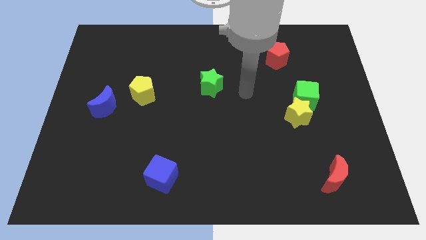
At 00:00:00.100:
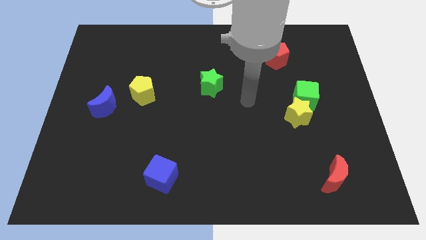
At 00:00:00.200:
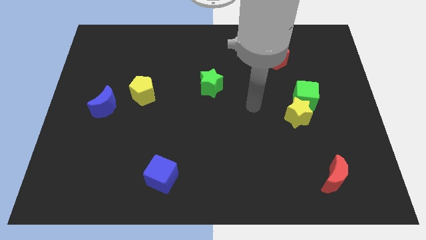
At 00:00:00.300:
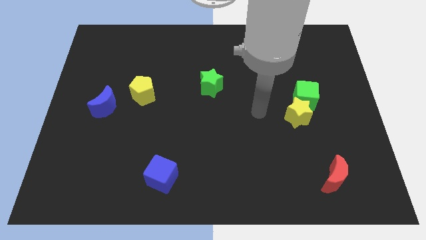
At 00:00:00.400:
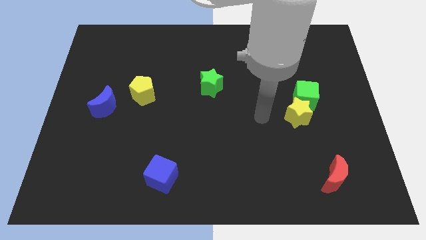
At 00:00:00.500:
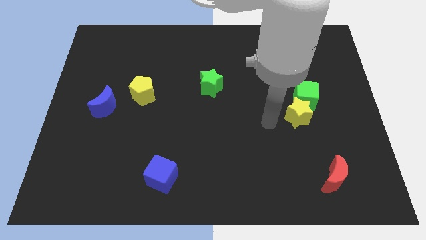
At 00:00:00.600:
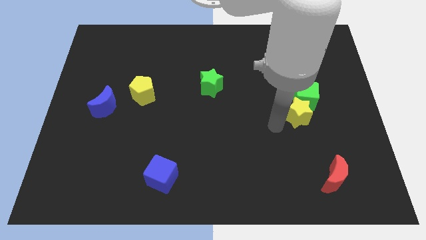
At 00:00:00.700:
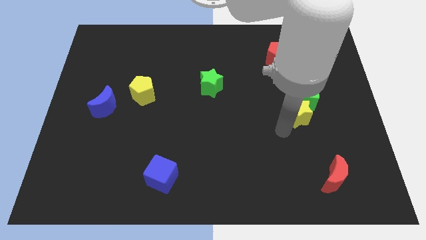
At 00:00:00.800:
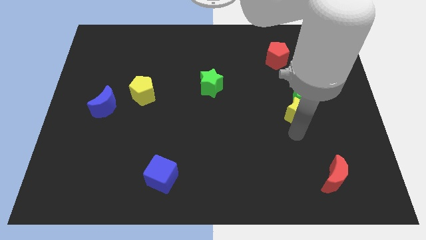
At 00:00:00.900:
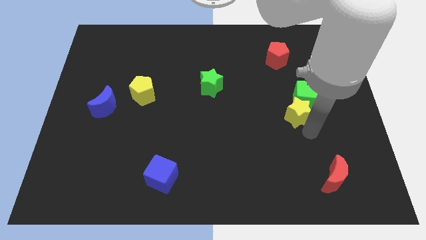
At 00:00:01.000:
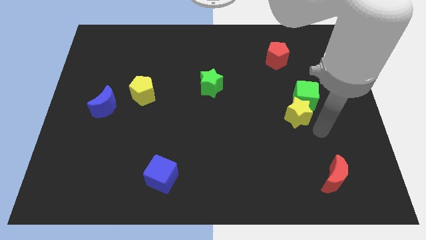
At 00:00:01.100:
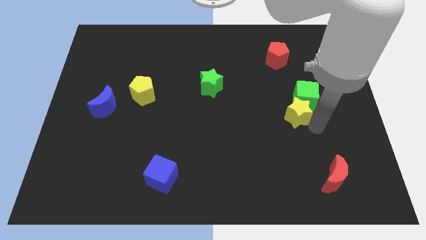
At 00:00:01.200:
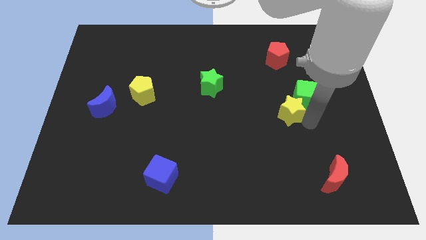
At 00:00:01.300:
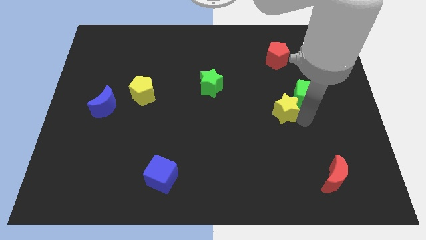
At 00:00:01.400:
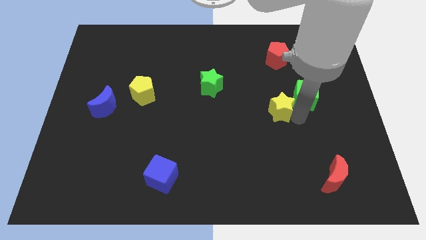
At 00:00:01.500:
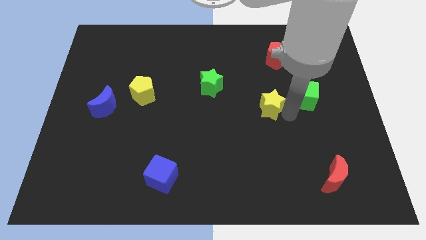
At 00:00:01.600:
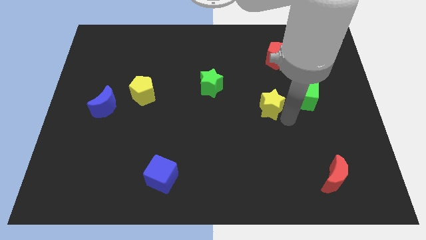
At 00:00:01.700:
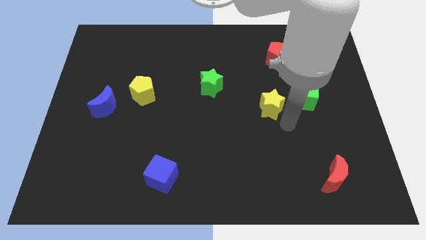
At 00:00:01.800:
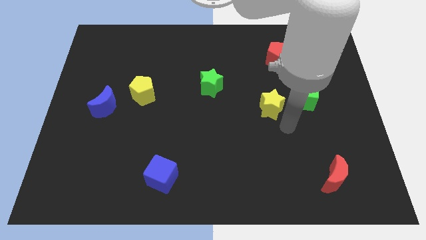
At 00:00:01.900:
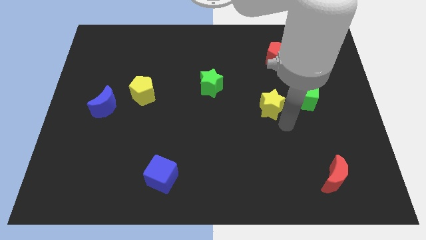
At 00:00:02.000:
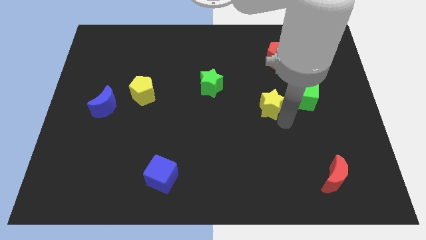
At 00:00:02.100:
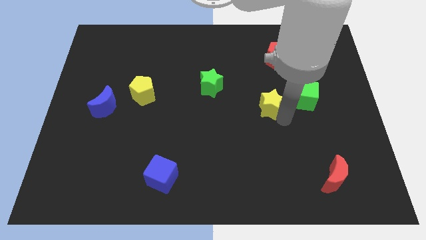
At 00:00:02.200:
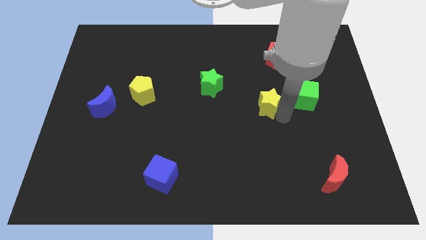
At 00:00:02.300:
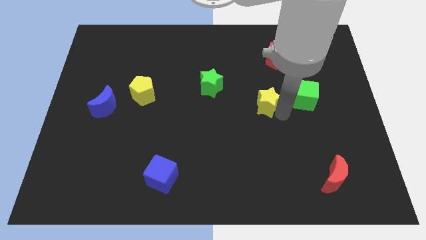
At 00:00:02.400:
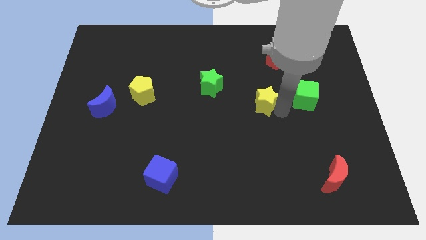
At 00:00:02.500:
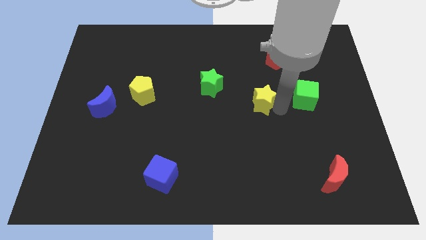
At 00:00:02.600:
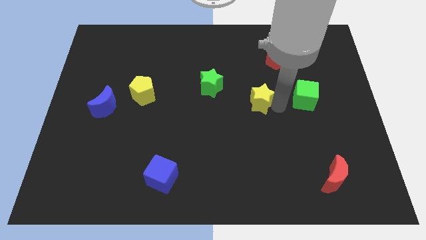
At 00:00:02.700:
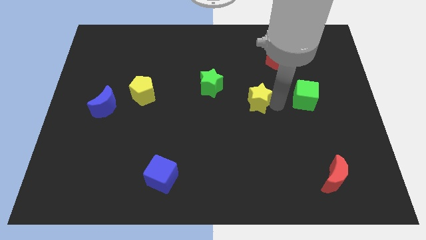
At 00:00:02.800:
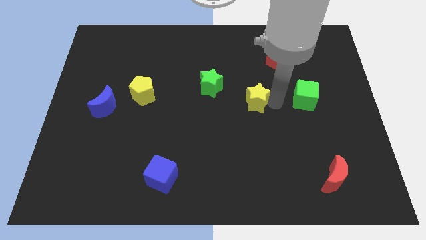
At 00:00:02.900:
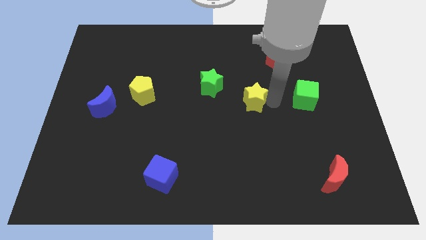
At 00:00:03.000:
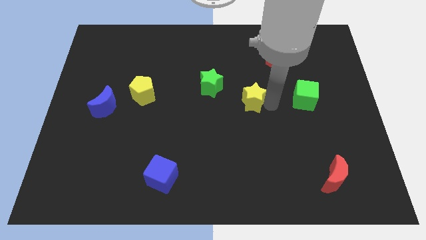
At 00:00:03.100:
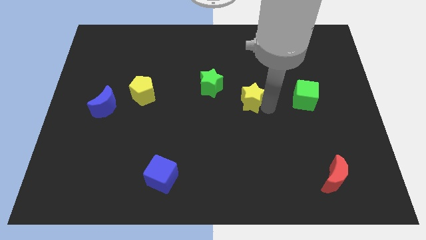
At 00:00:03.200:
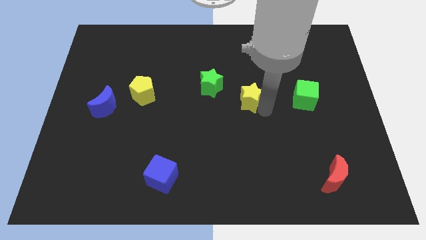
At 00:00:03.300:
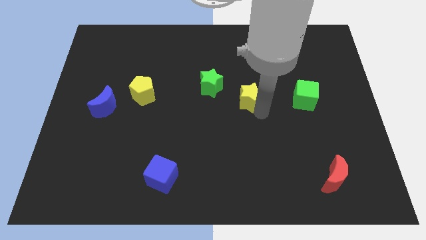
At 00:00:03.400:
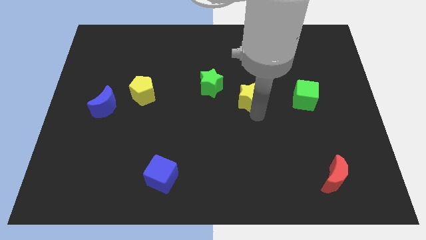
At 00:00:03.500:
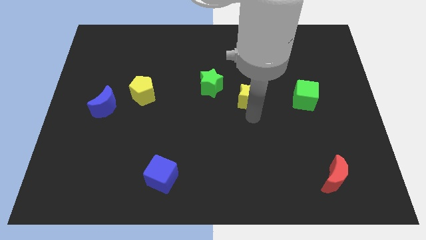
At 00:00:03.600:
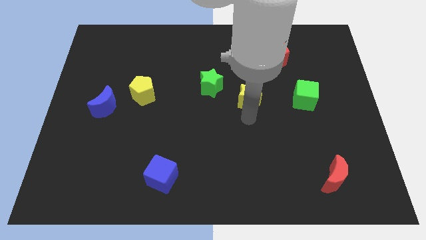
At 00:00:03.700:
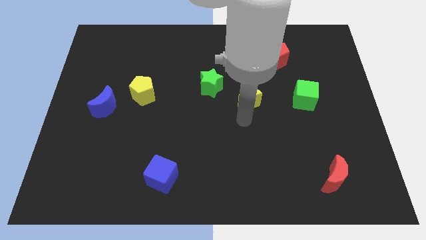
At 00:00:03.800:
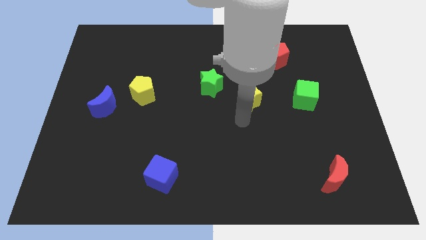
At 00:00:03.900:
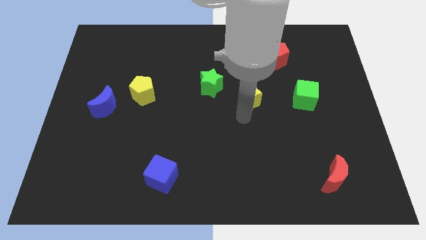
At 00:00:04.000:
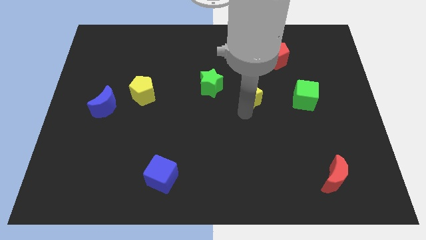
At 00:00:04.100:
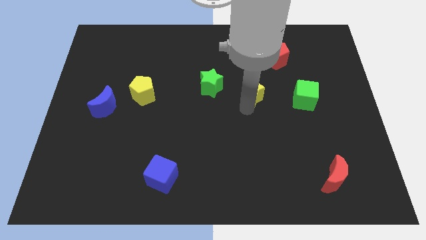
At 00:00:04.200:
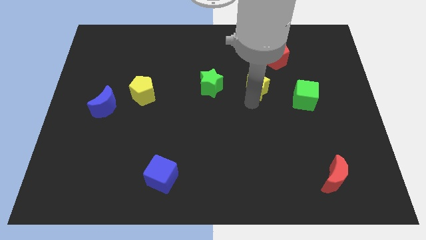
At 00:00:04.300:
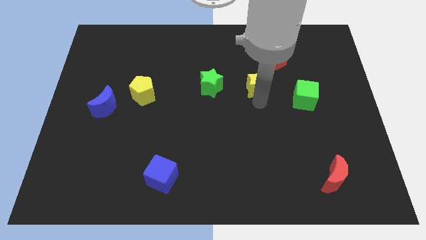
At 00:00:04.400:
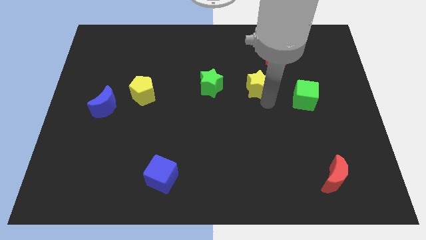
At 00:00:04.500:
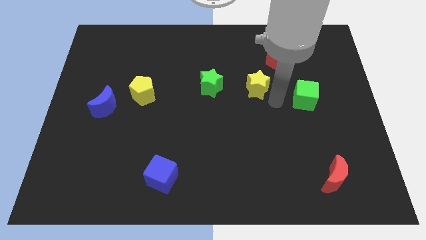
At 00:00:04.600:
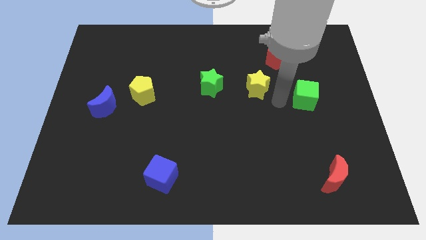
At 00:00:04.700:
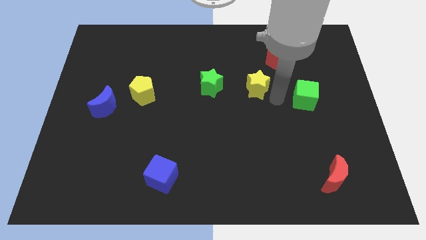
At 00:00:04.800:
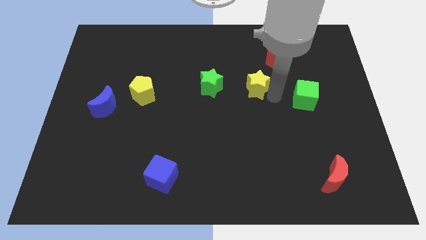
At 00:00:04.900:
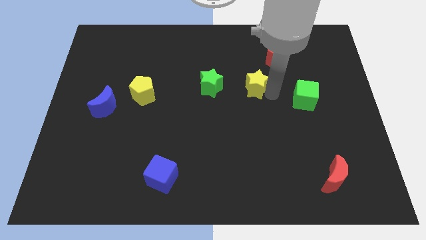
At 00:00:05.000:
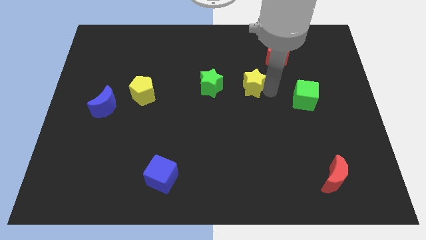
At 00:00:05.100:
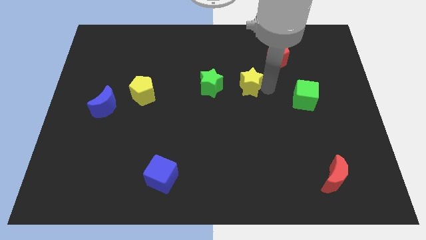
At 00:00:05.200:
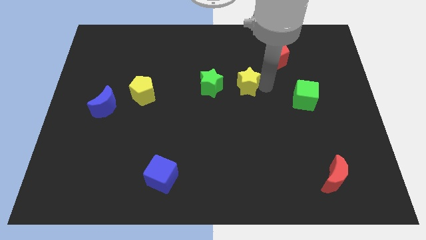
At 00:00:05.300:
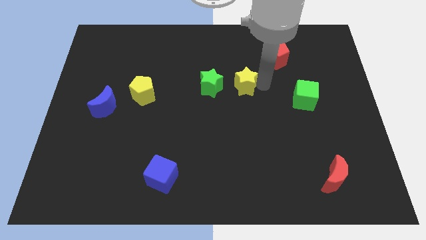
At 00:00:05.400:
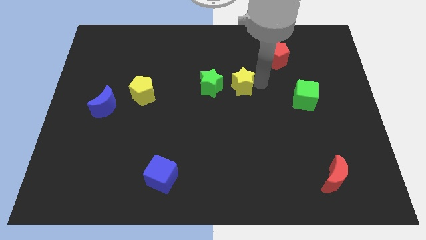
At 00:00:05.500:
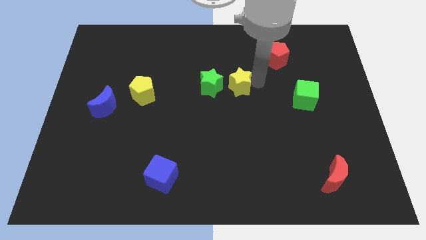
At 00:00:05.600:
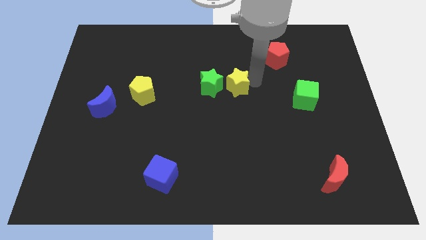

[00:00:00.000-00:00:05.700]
put the yellow star diagonally up and to the right of the green star

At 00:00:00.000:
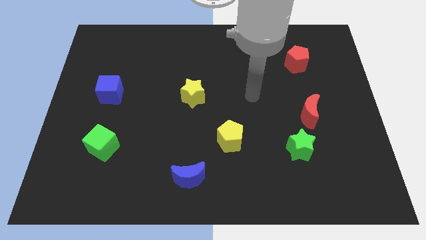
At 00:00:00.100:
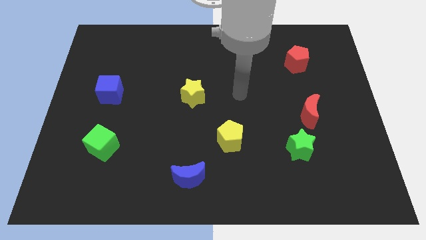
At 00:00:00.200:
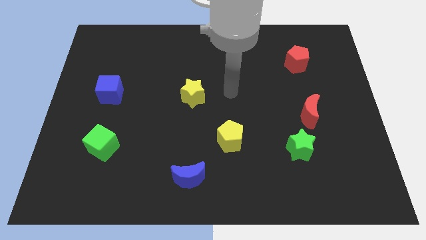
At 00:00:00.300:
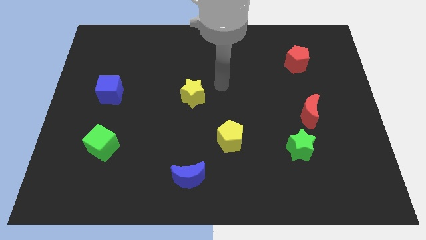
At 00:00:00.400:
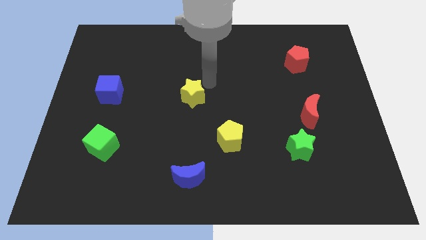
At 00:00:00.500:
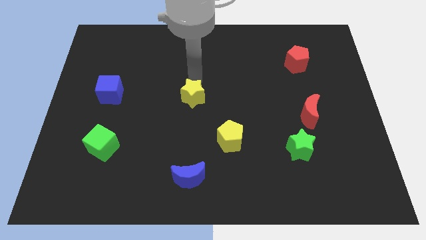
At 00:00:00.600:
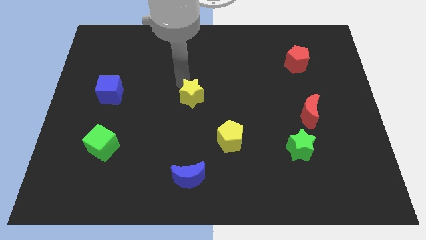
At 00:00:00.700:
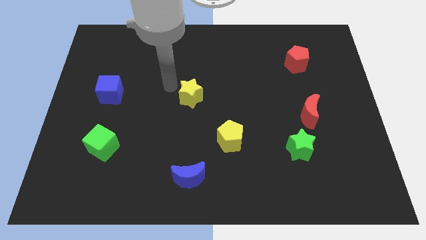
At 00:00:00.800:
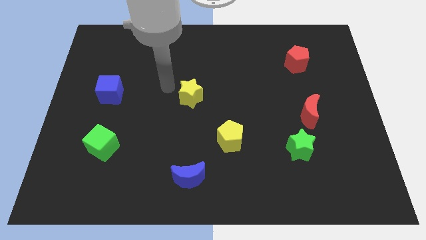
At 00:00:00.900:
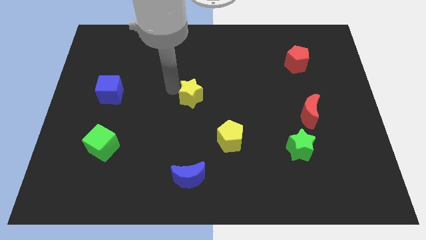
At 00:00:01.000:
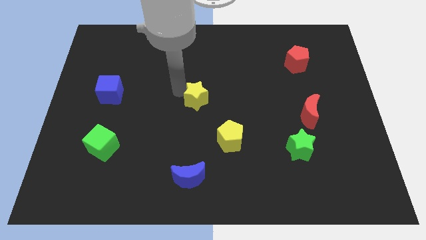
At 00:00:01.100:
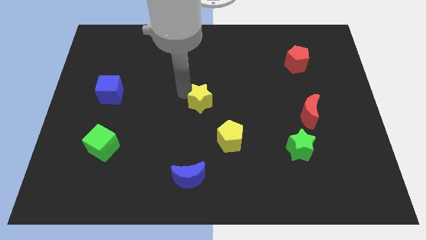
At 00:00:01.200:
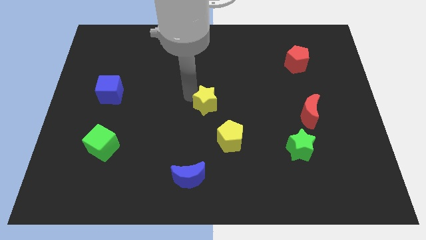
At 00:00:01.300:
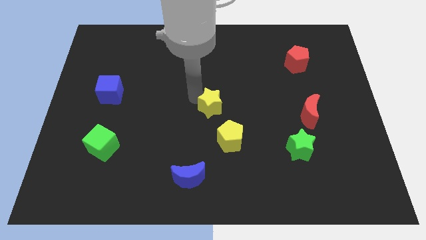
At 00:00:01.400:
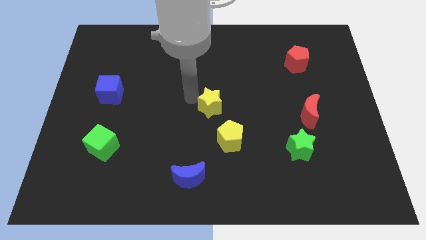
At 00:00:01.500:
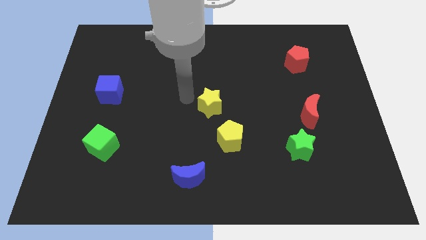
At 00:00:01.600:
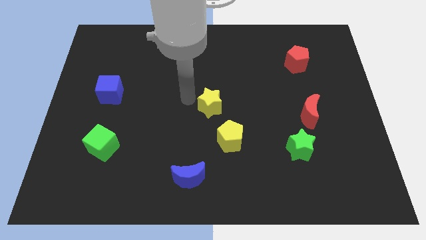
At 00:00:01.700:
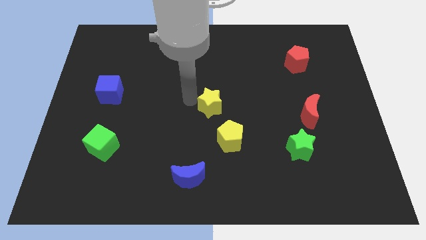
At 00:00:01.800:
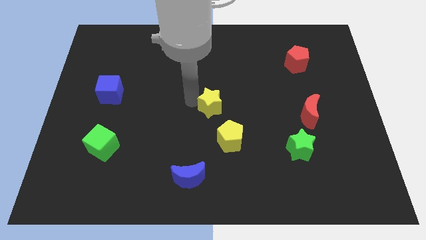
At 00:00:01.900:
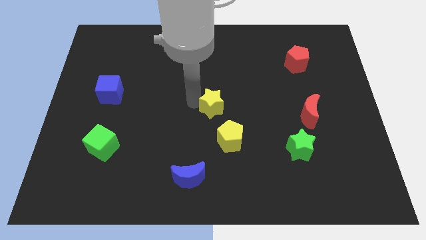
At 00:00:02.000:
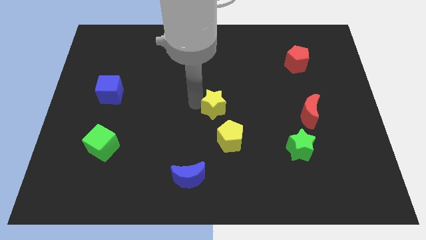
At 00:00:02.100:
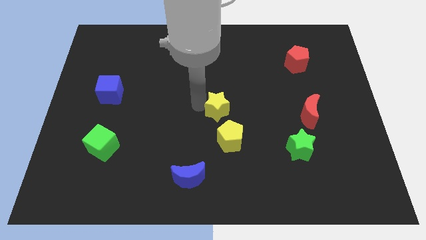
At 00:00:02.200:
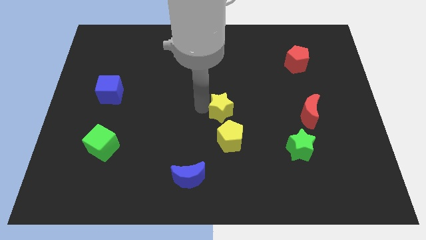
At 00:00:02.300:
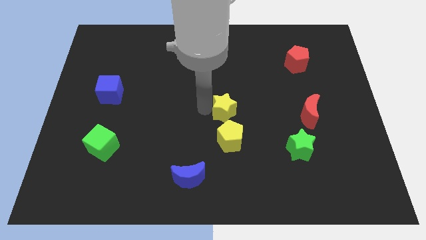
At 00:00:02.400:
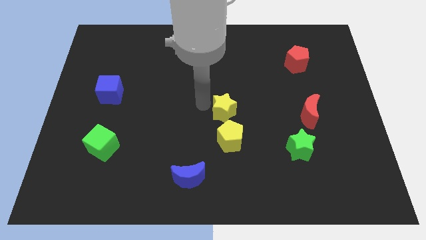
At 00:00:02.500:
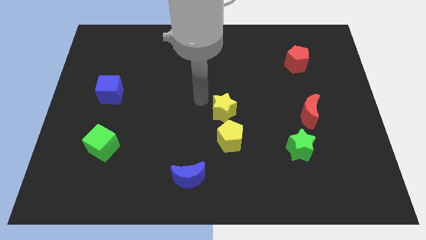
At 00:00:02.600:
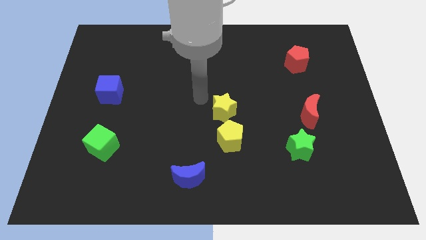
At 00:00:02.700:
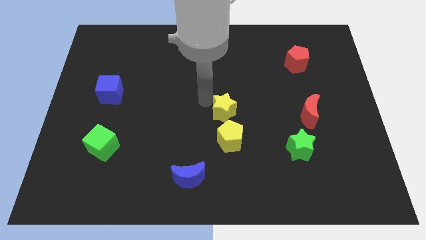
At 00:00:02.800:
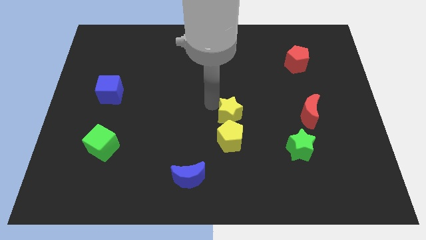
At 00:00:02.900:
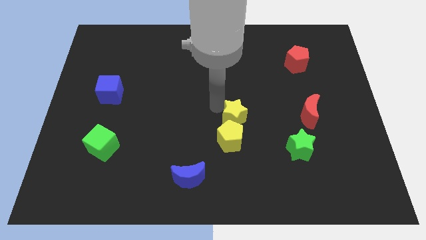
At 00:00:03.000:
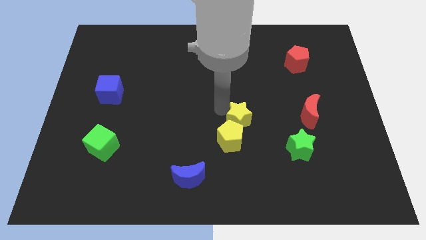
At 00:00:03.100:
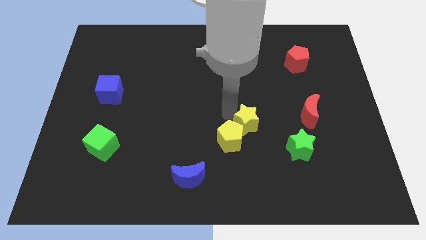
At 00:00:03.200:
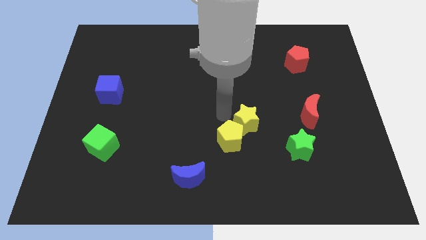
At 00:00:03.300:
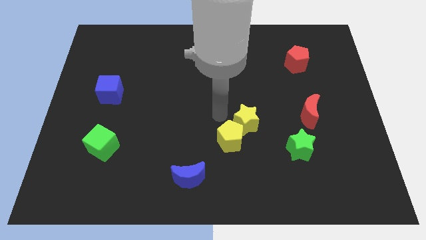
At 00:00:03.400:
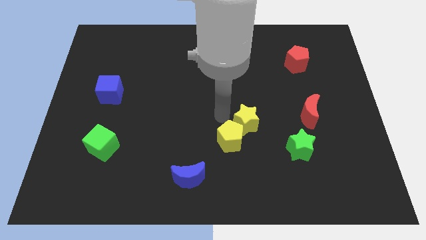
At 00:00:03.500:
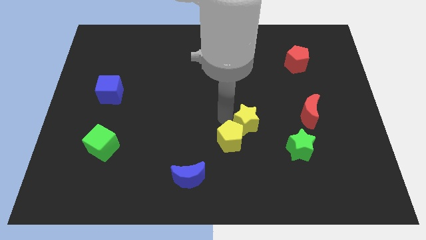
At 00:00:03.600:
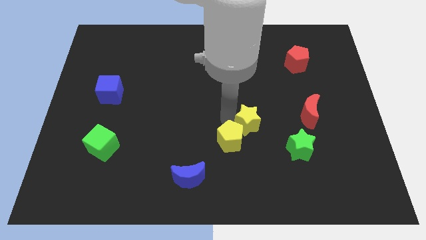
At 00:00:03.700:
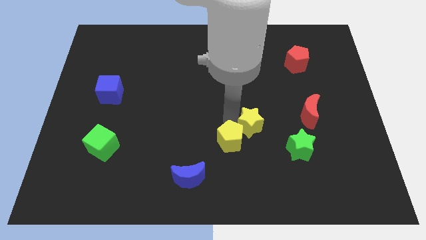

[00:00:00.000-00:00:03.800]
move the yellow star to the top left side of the green star
